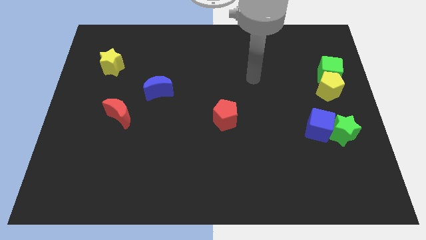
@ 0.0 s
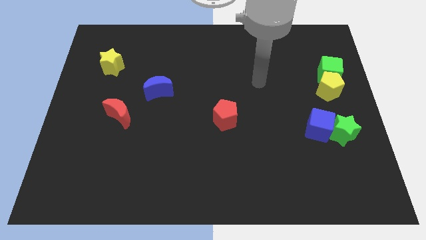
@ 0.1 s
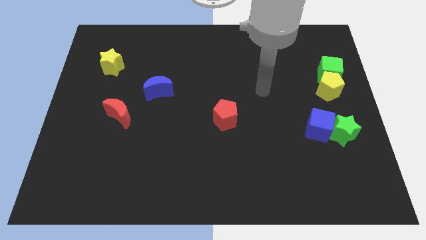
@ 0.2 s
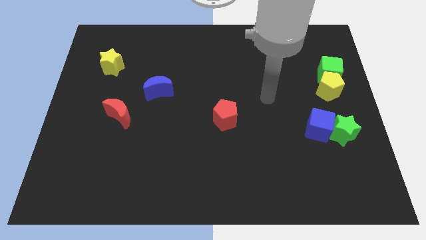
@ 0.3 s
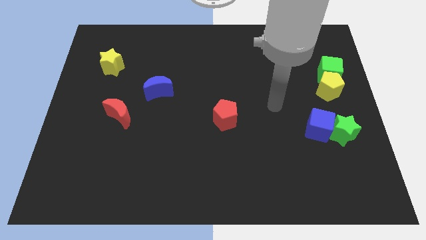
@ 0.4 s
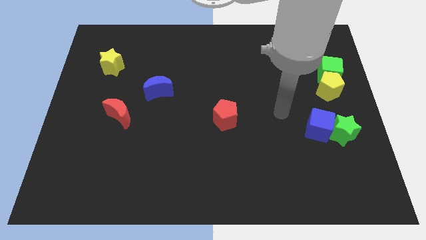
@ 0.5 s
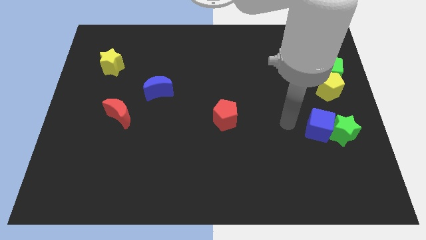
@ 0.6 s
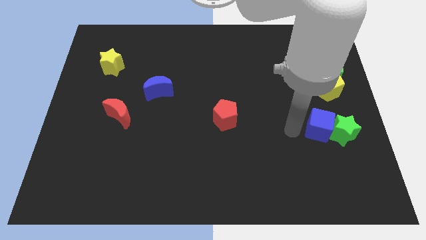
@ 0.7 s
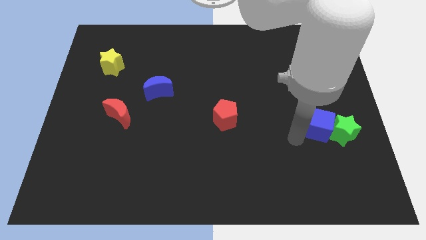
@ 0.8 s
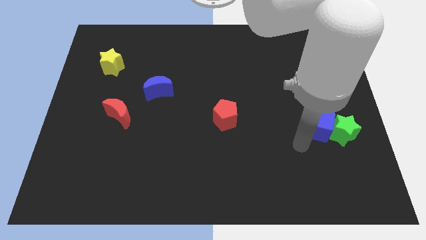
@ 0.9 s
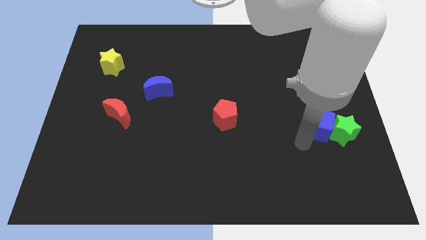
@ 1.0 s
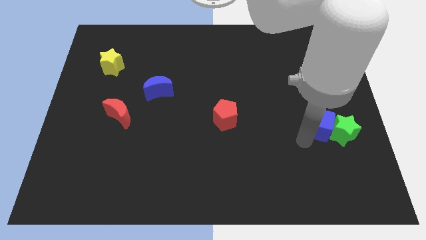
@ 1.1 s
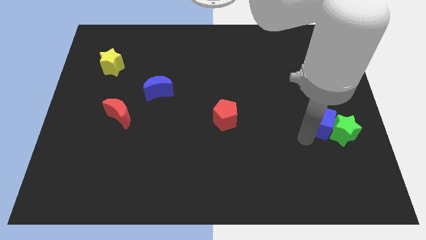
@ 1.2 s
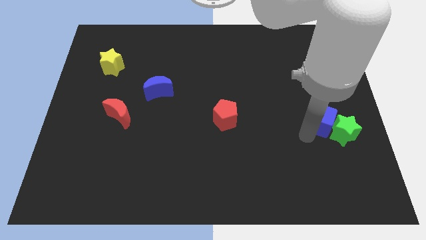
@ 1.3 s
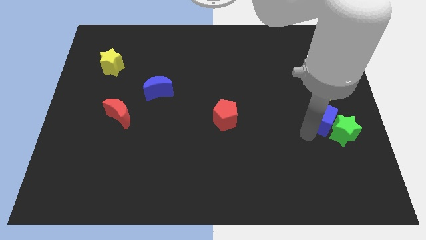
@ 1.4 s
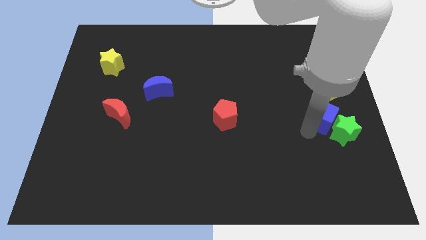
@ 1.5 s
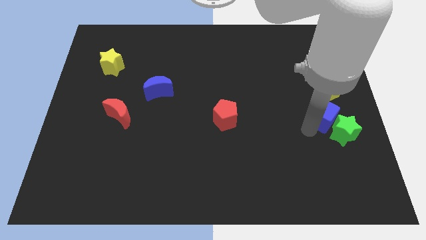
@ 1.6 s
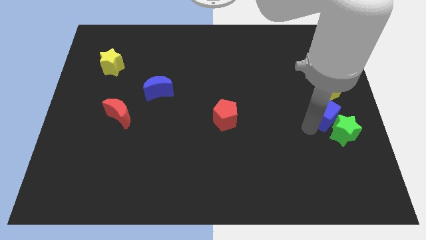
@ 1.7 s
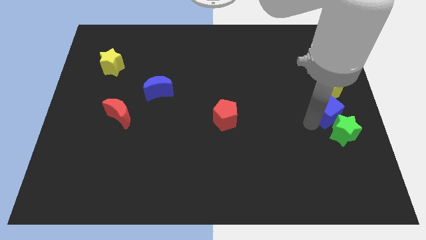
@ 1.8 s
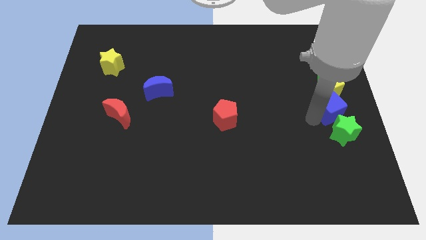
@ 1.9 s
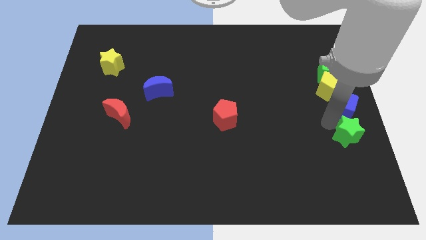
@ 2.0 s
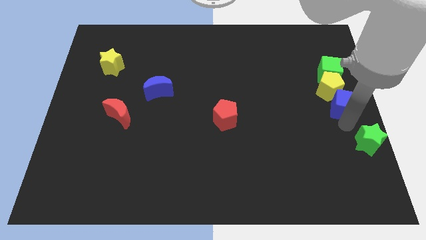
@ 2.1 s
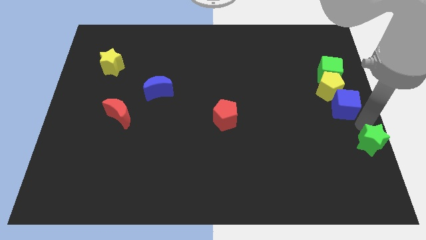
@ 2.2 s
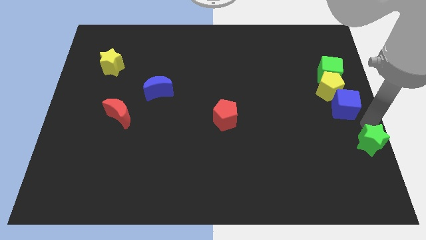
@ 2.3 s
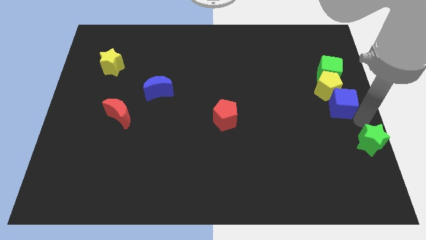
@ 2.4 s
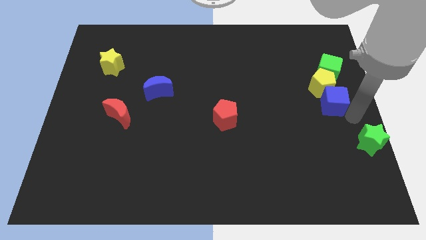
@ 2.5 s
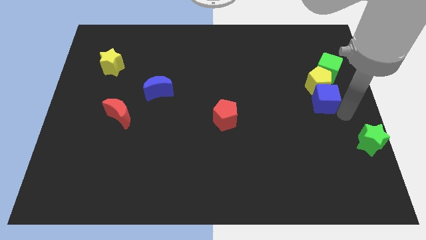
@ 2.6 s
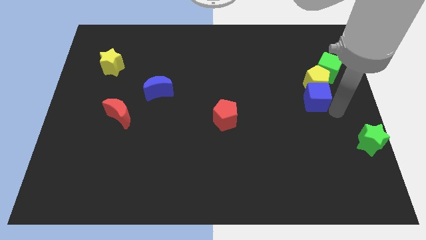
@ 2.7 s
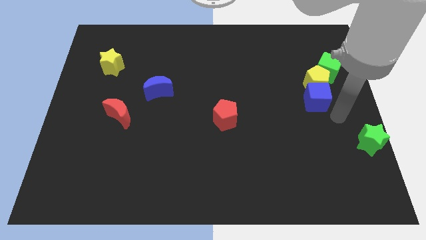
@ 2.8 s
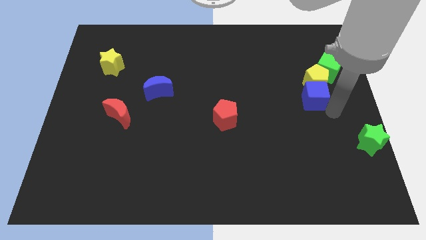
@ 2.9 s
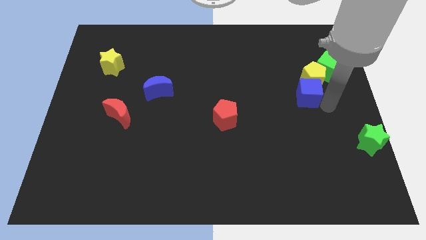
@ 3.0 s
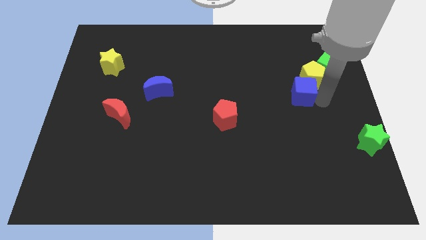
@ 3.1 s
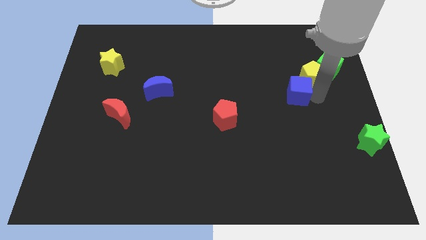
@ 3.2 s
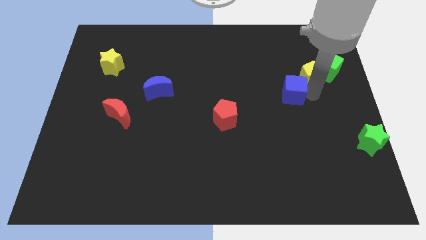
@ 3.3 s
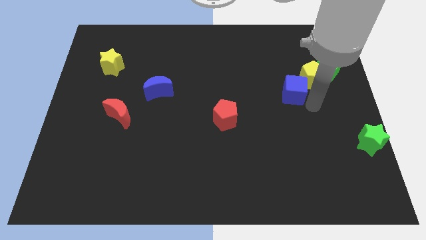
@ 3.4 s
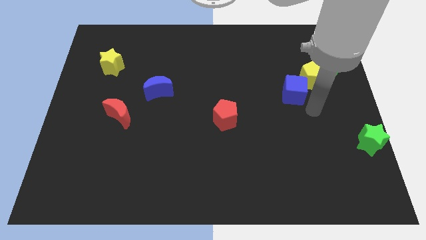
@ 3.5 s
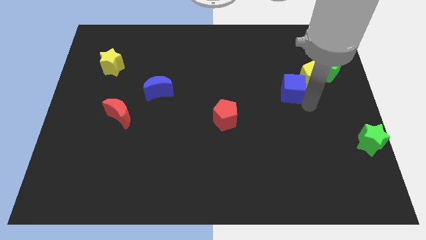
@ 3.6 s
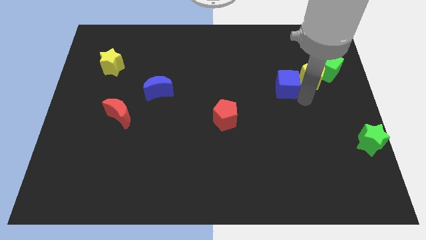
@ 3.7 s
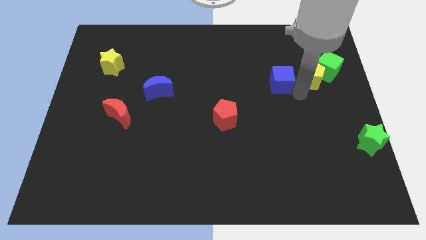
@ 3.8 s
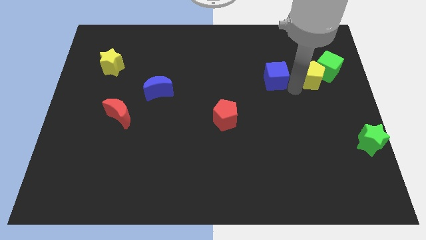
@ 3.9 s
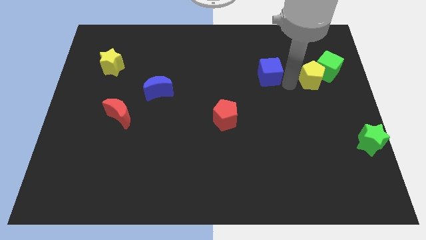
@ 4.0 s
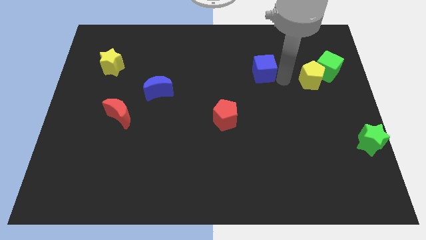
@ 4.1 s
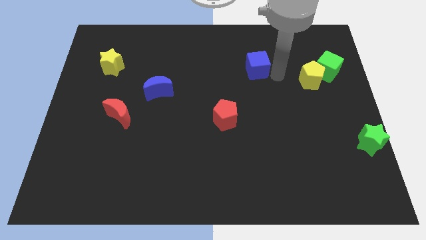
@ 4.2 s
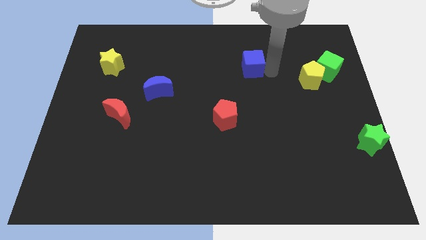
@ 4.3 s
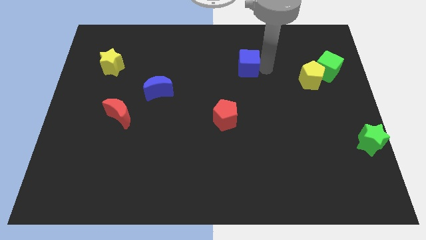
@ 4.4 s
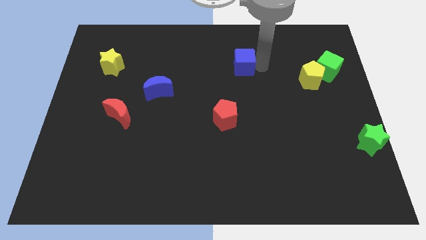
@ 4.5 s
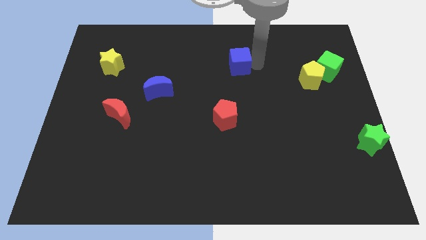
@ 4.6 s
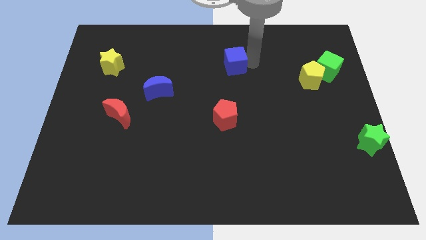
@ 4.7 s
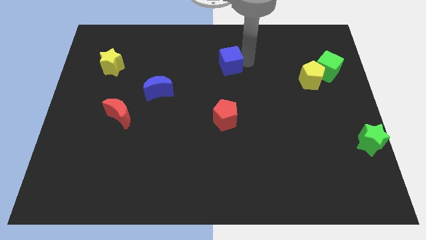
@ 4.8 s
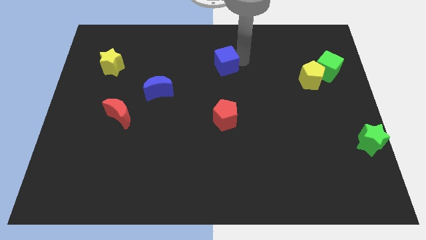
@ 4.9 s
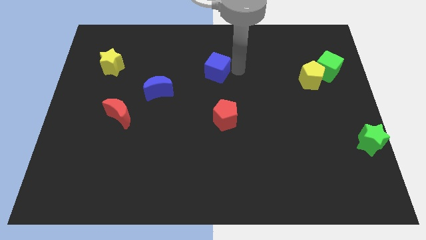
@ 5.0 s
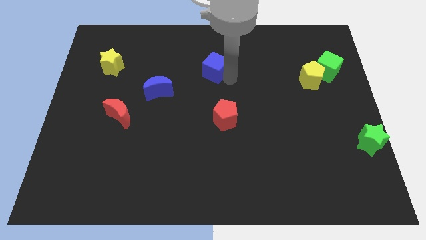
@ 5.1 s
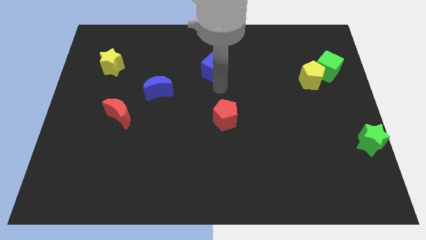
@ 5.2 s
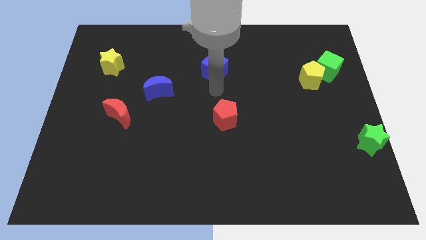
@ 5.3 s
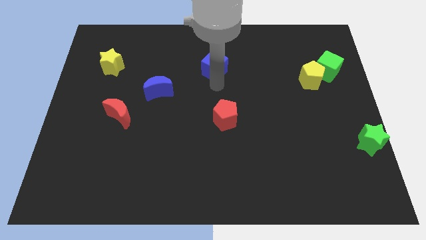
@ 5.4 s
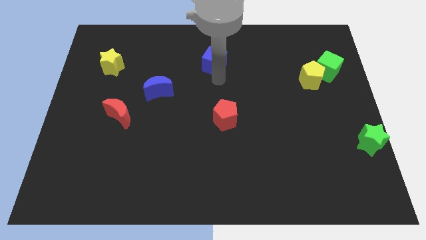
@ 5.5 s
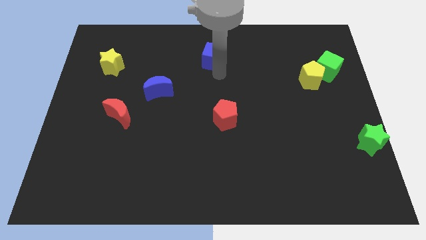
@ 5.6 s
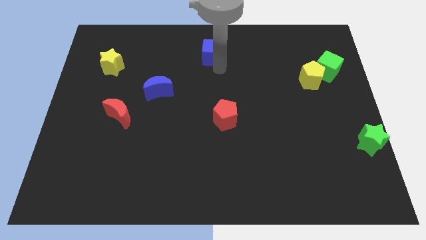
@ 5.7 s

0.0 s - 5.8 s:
push the blue cube to the towards your base

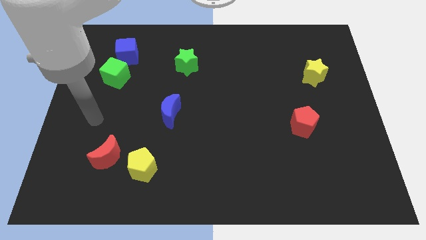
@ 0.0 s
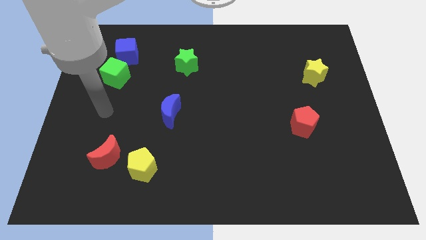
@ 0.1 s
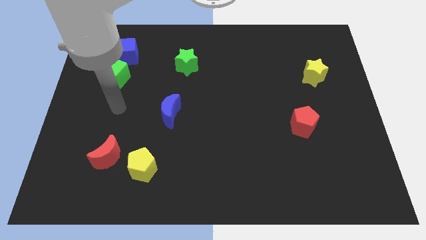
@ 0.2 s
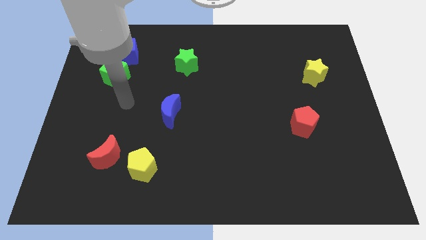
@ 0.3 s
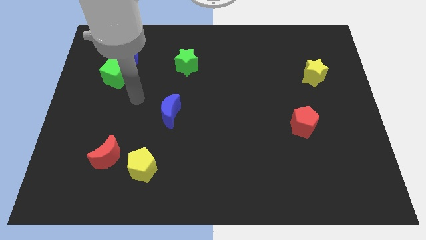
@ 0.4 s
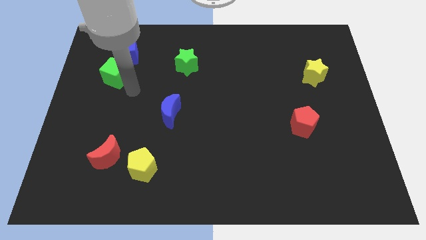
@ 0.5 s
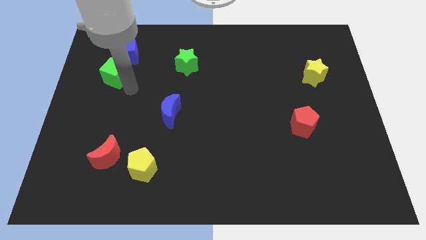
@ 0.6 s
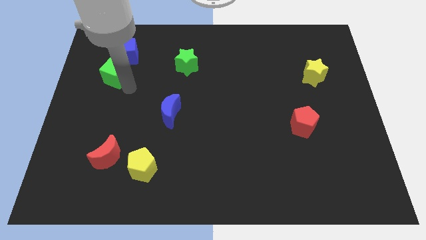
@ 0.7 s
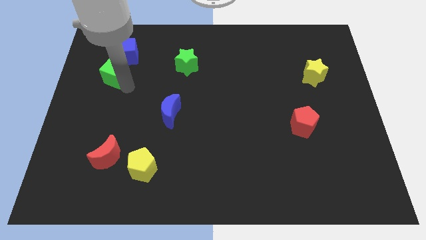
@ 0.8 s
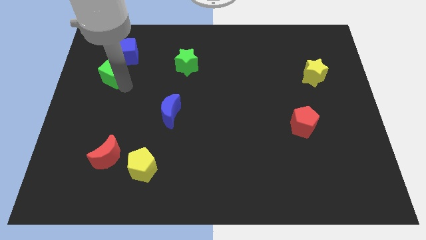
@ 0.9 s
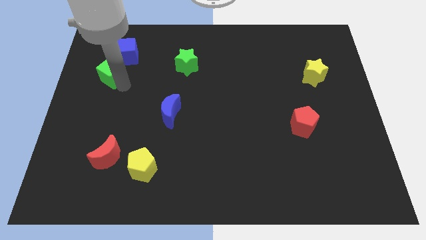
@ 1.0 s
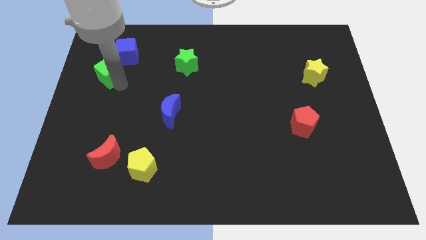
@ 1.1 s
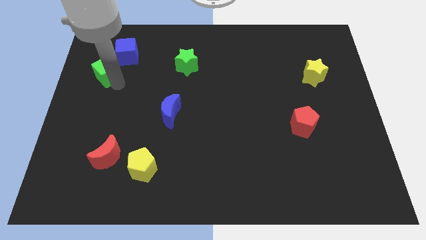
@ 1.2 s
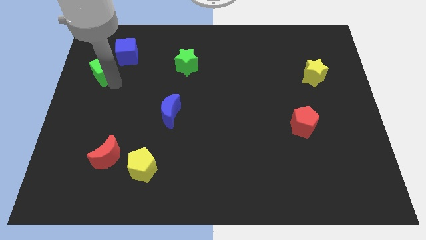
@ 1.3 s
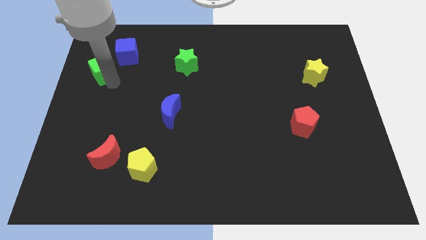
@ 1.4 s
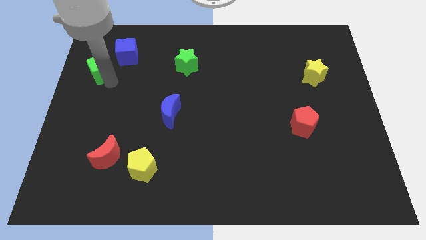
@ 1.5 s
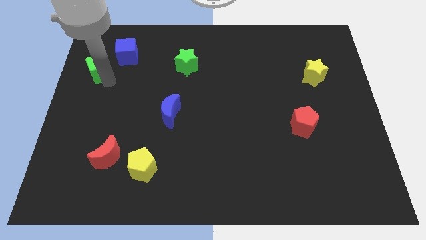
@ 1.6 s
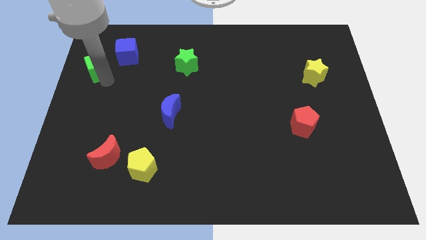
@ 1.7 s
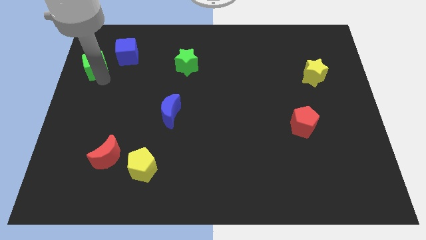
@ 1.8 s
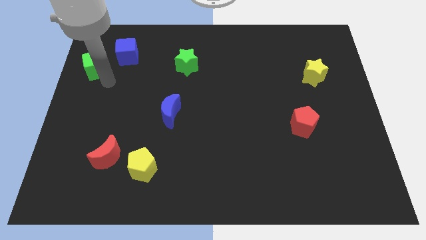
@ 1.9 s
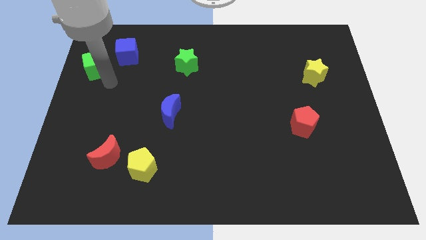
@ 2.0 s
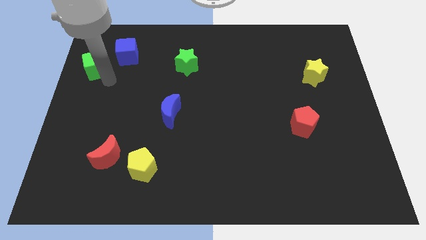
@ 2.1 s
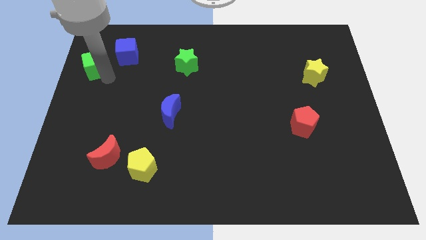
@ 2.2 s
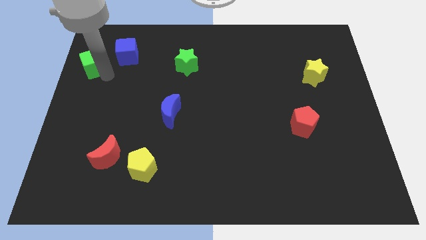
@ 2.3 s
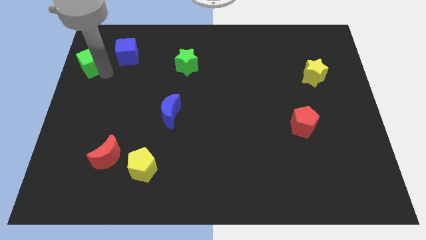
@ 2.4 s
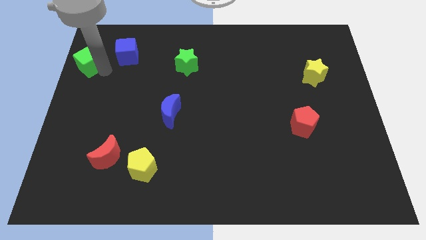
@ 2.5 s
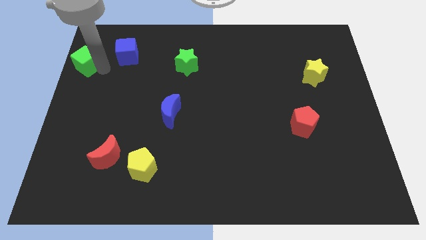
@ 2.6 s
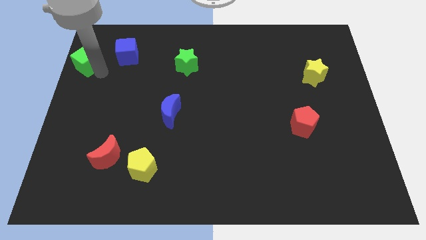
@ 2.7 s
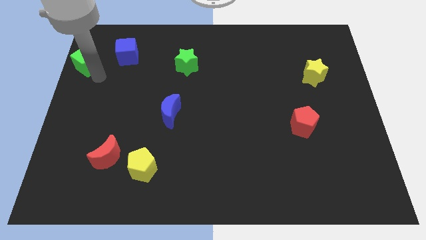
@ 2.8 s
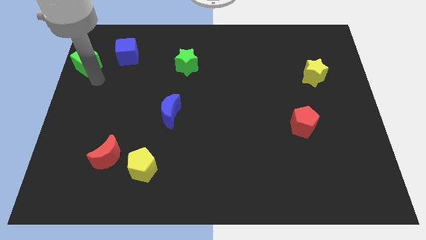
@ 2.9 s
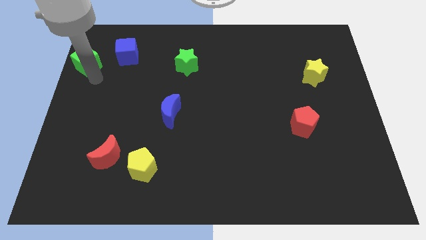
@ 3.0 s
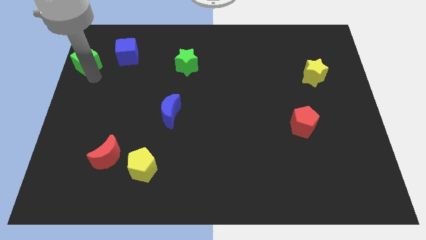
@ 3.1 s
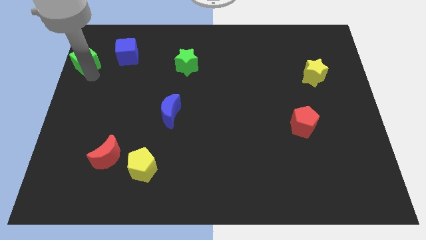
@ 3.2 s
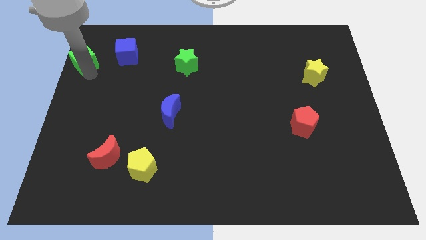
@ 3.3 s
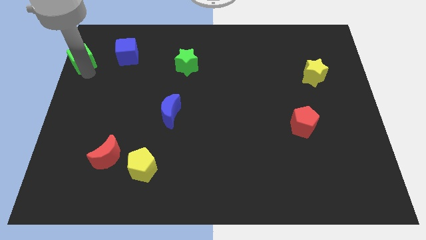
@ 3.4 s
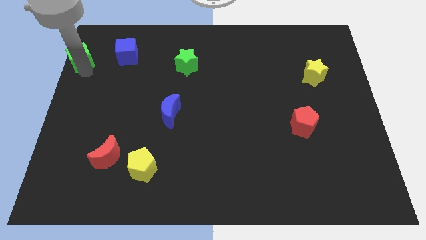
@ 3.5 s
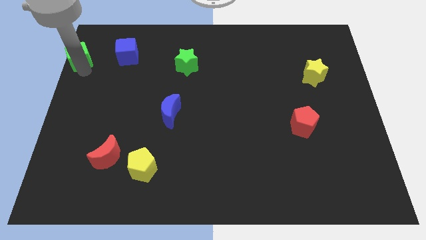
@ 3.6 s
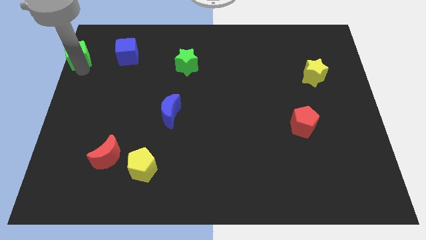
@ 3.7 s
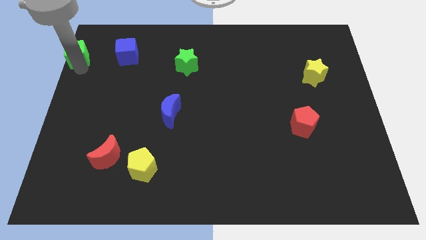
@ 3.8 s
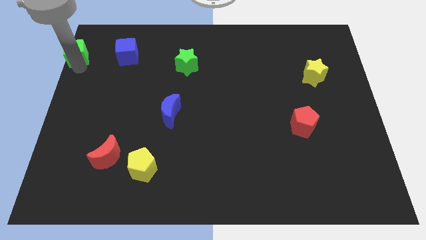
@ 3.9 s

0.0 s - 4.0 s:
put the green cube to the top left of the board
